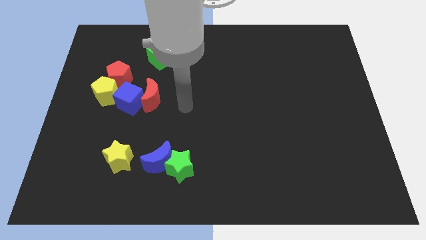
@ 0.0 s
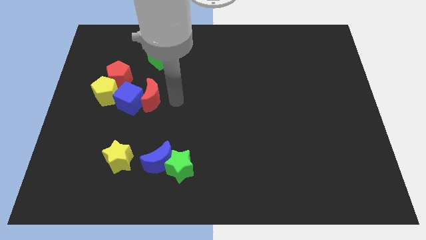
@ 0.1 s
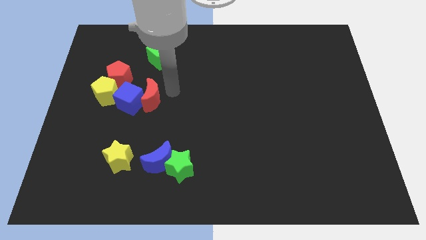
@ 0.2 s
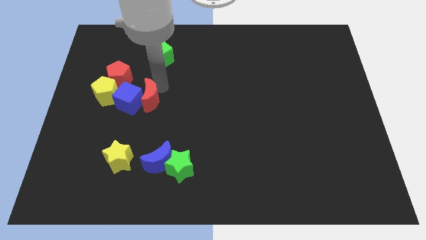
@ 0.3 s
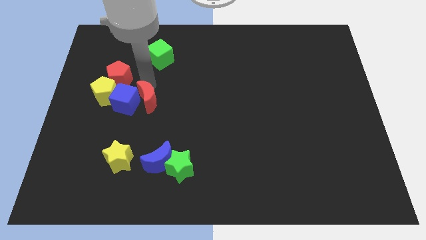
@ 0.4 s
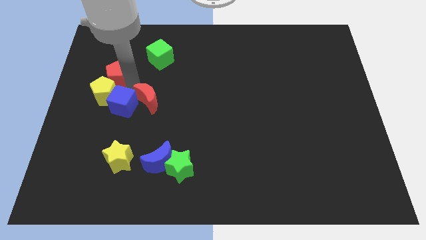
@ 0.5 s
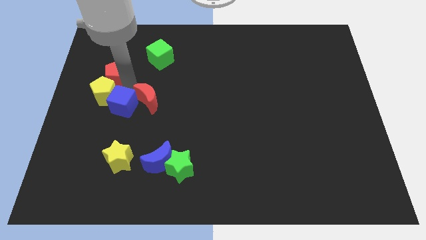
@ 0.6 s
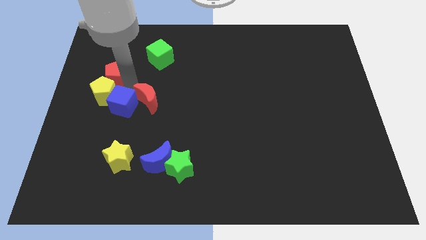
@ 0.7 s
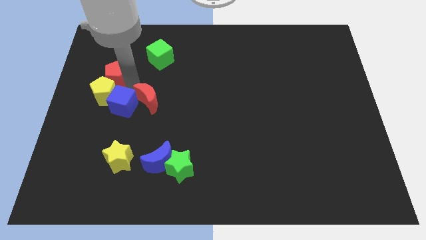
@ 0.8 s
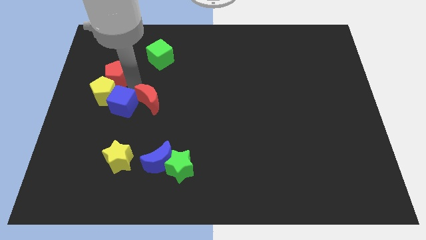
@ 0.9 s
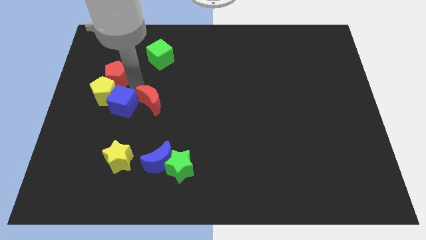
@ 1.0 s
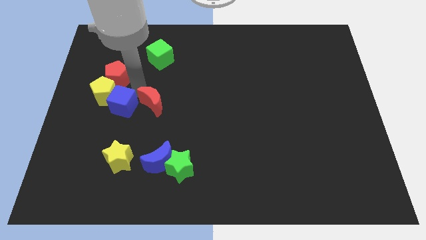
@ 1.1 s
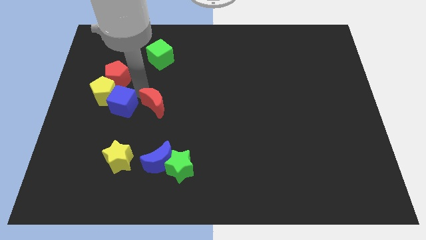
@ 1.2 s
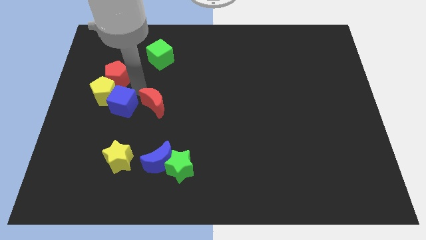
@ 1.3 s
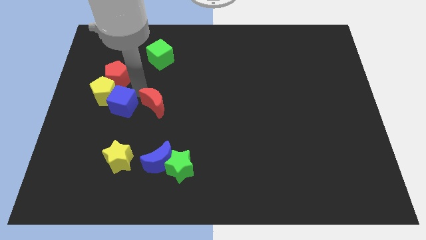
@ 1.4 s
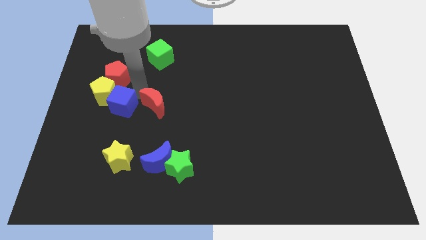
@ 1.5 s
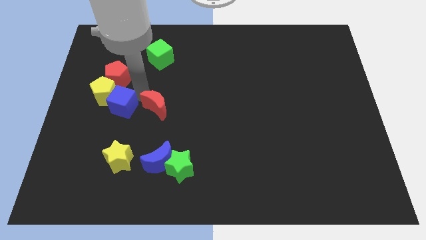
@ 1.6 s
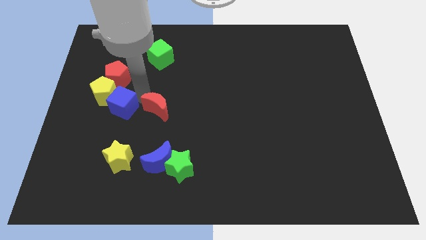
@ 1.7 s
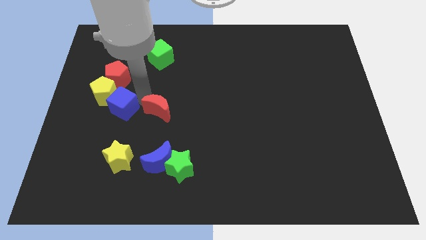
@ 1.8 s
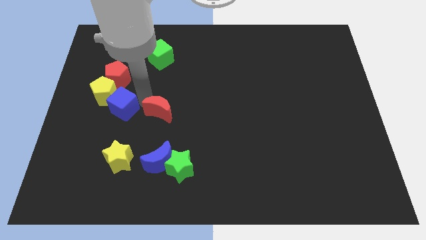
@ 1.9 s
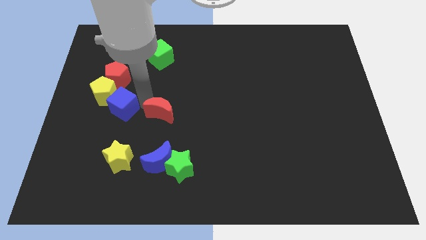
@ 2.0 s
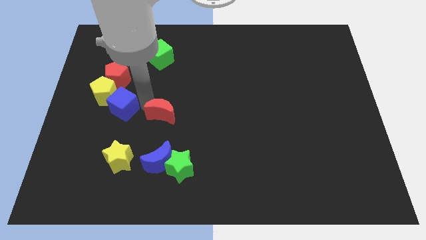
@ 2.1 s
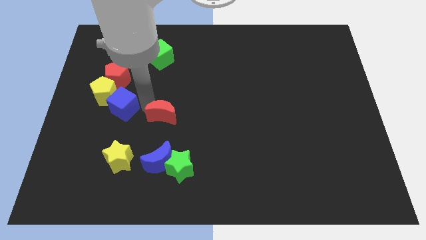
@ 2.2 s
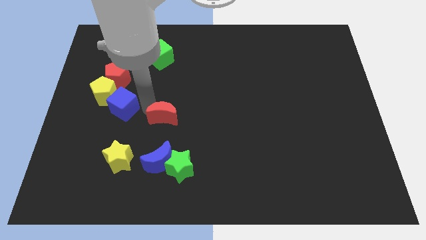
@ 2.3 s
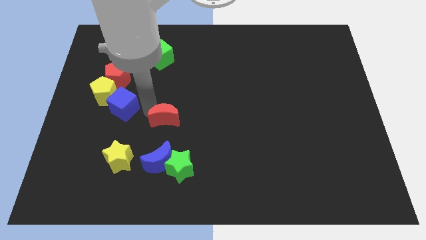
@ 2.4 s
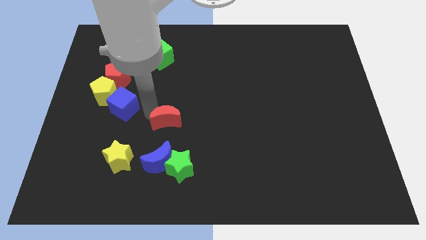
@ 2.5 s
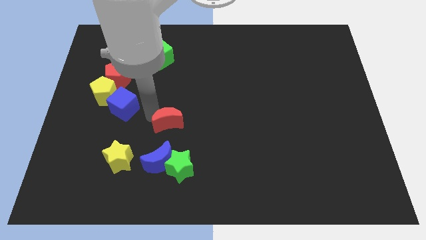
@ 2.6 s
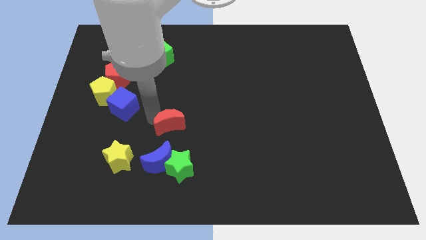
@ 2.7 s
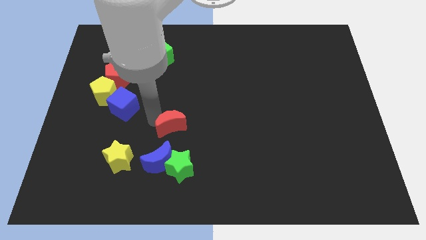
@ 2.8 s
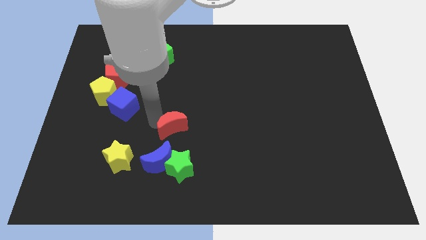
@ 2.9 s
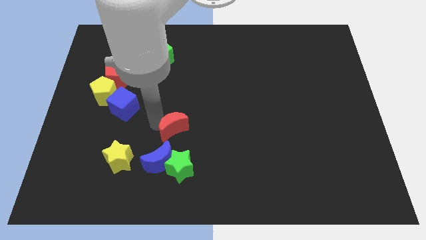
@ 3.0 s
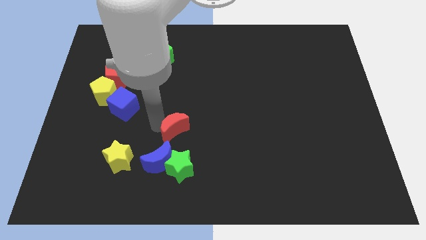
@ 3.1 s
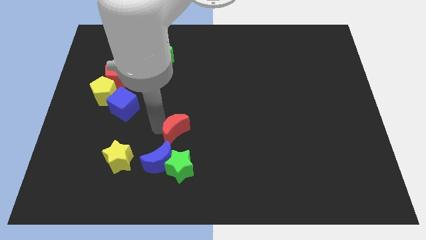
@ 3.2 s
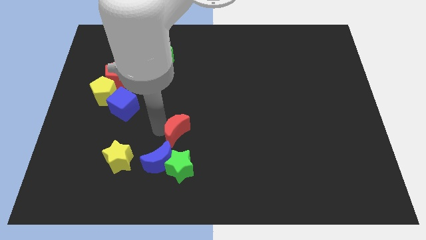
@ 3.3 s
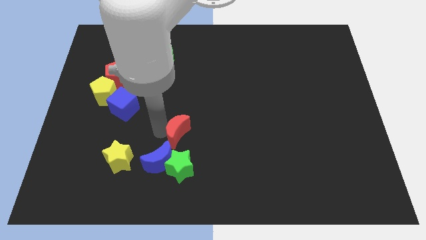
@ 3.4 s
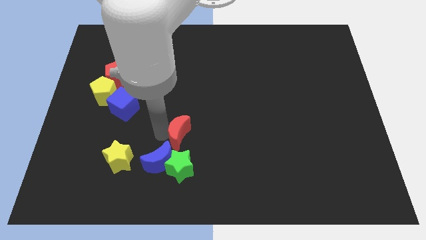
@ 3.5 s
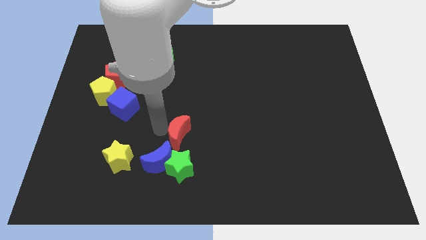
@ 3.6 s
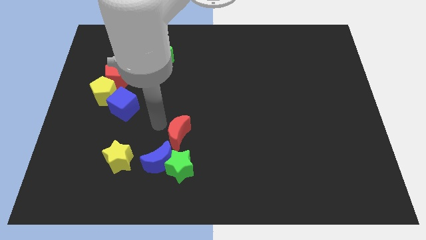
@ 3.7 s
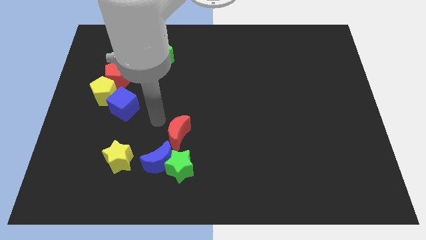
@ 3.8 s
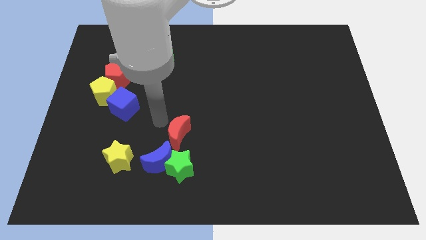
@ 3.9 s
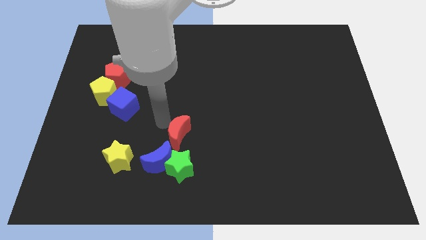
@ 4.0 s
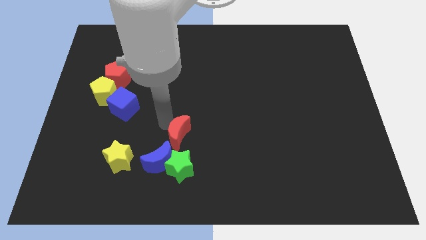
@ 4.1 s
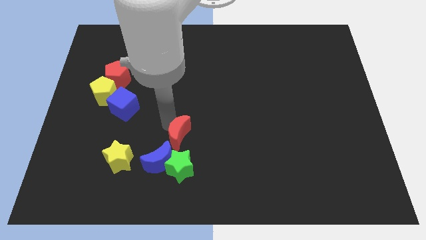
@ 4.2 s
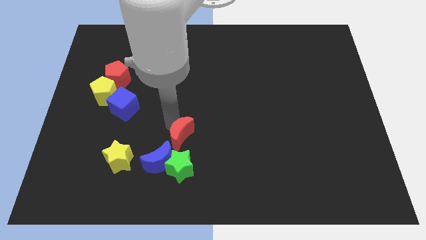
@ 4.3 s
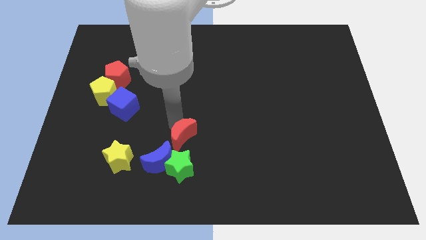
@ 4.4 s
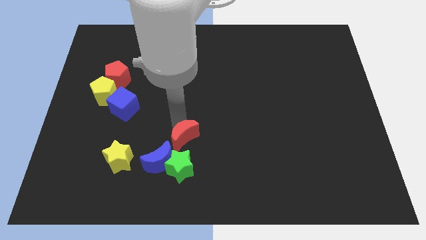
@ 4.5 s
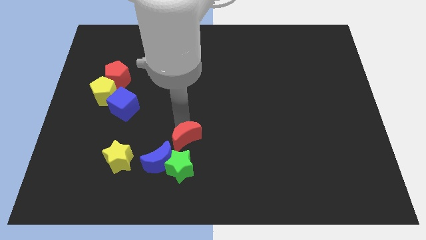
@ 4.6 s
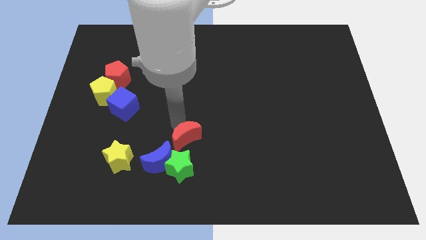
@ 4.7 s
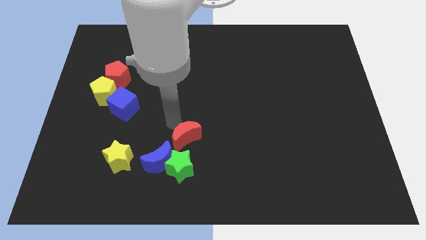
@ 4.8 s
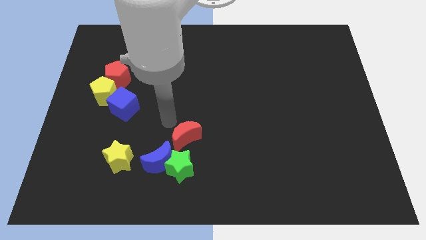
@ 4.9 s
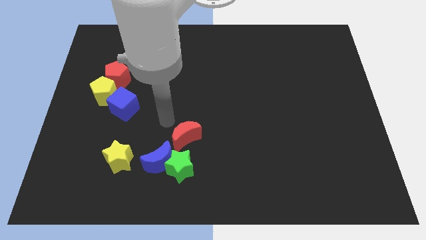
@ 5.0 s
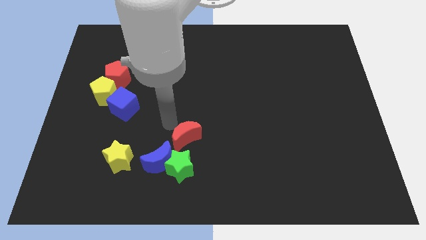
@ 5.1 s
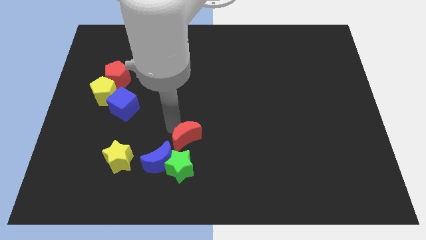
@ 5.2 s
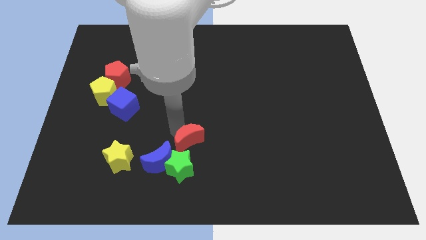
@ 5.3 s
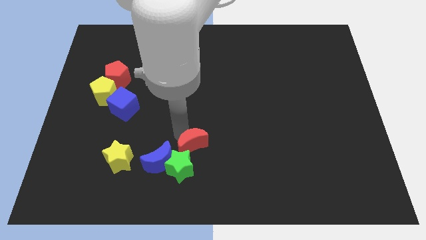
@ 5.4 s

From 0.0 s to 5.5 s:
push the red moon right of the blue moon

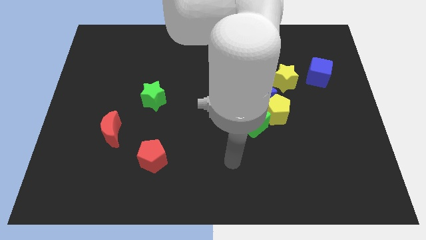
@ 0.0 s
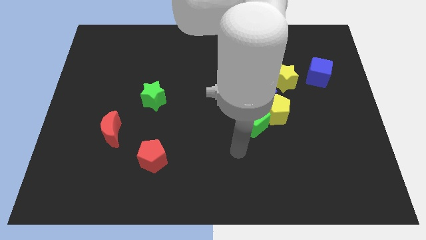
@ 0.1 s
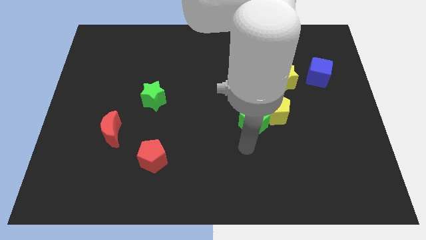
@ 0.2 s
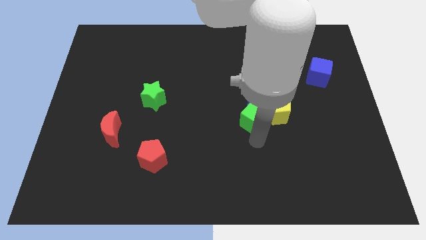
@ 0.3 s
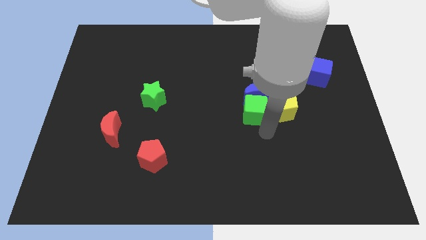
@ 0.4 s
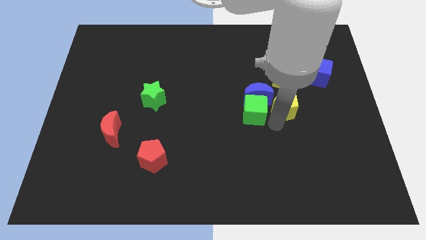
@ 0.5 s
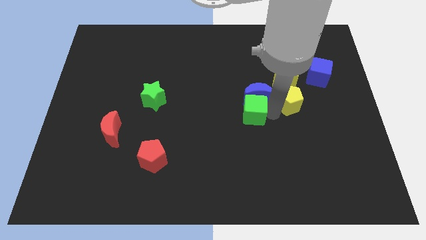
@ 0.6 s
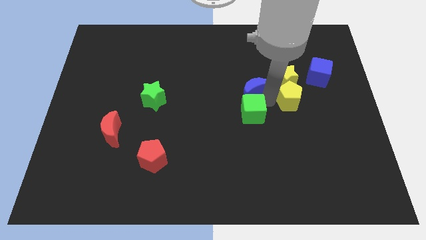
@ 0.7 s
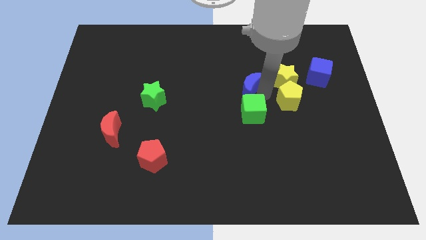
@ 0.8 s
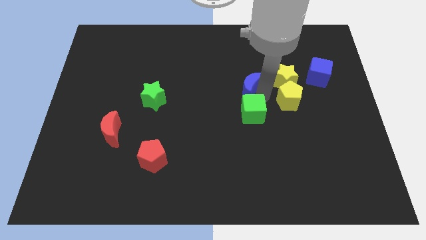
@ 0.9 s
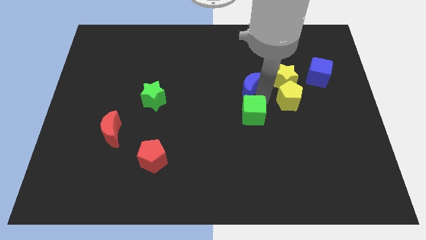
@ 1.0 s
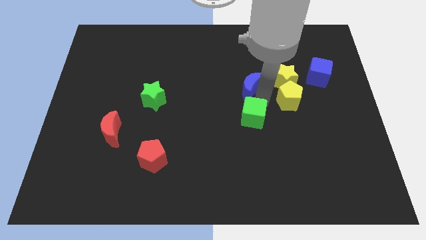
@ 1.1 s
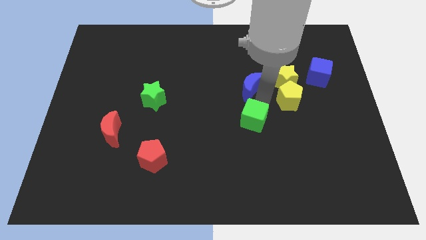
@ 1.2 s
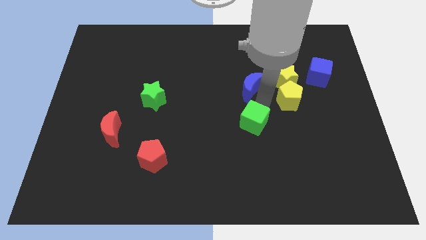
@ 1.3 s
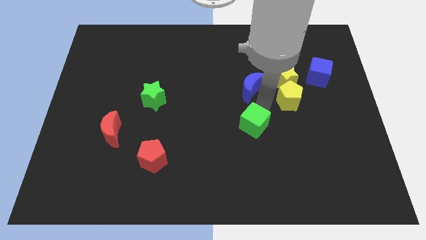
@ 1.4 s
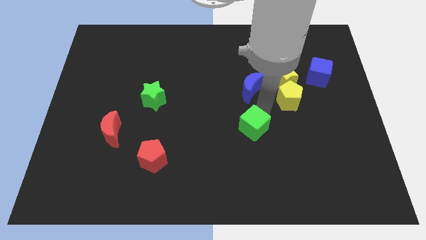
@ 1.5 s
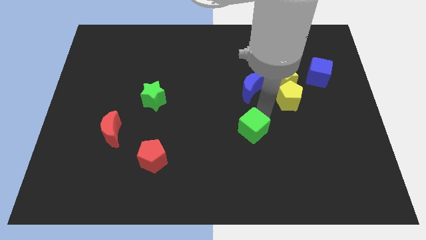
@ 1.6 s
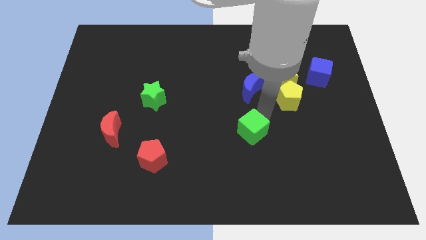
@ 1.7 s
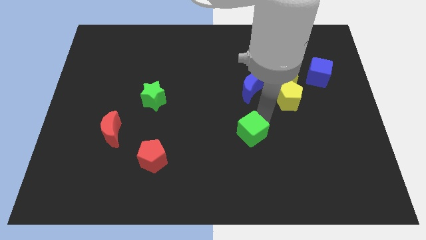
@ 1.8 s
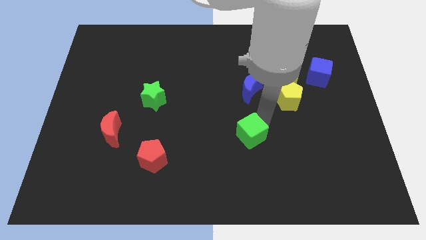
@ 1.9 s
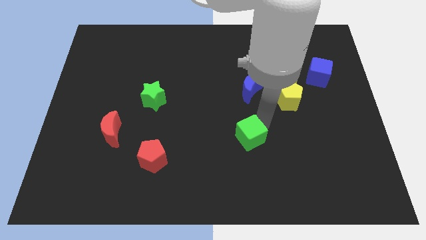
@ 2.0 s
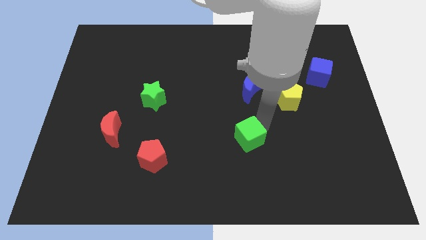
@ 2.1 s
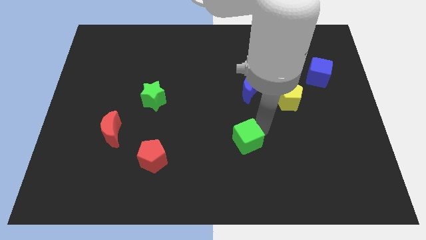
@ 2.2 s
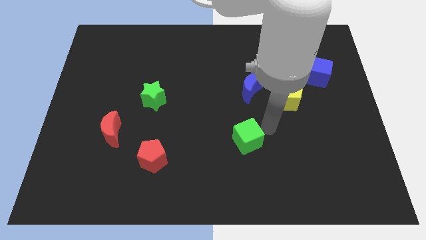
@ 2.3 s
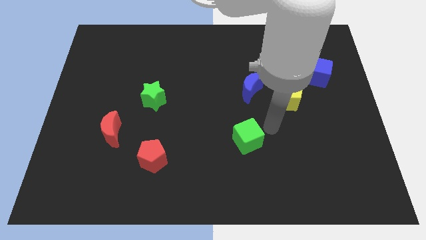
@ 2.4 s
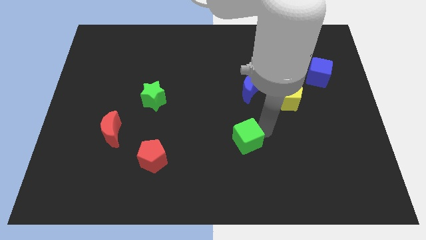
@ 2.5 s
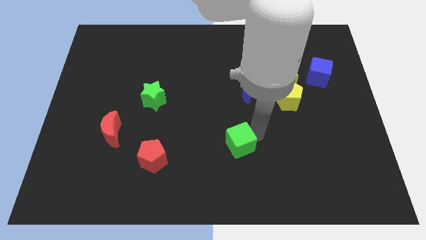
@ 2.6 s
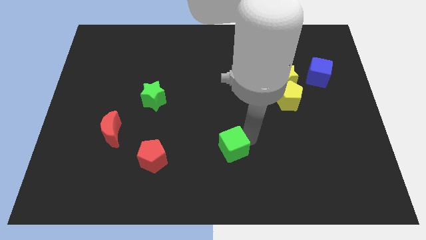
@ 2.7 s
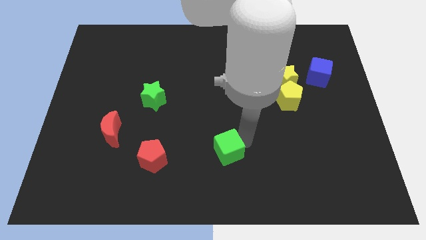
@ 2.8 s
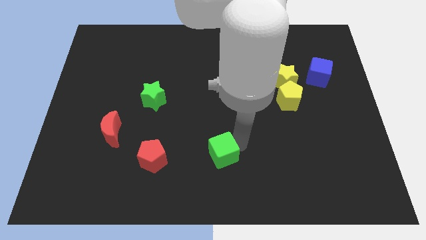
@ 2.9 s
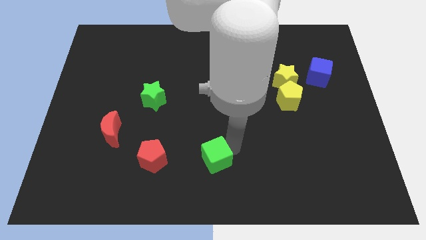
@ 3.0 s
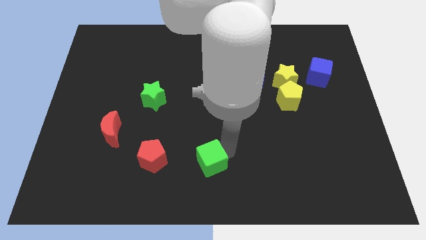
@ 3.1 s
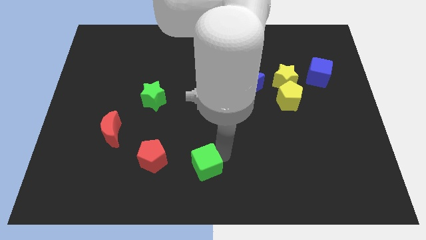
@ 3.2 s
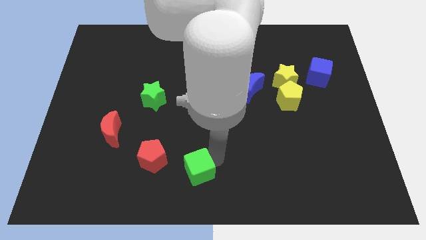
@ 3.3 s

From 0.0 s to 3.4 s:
push the green cube diagonally down and to the right of the red pentagon
